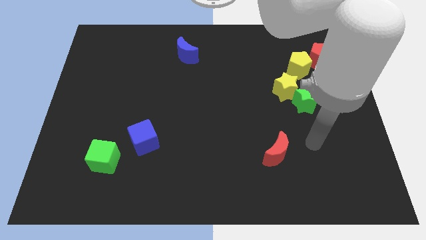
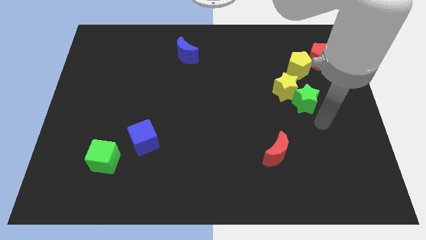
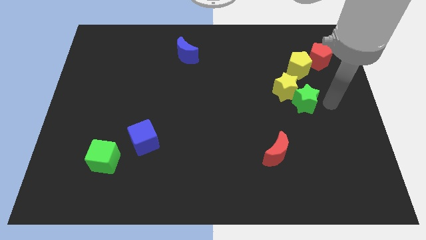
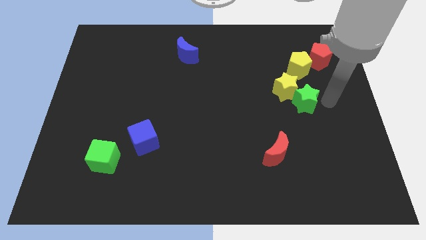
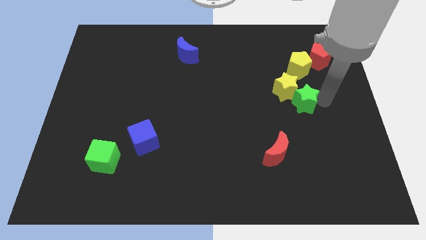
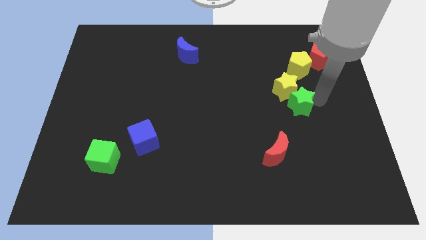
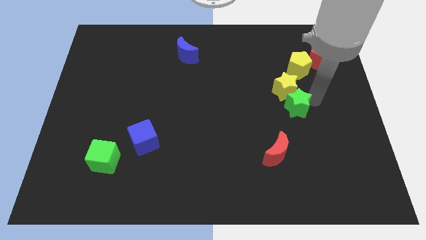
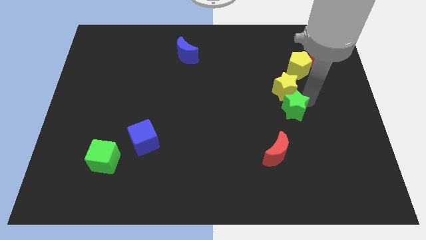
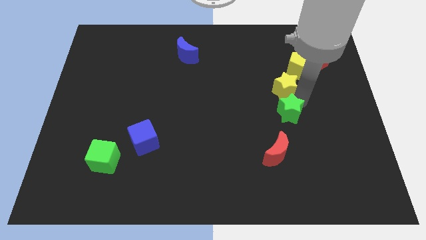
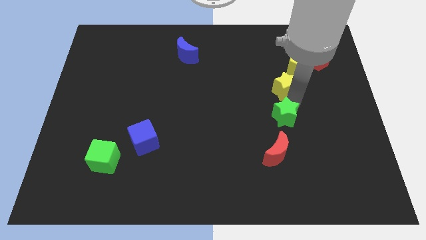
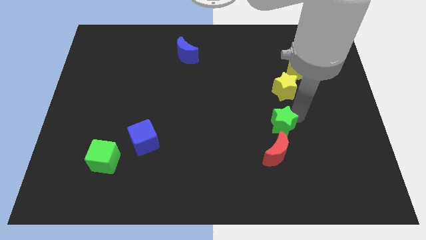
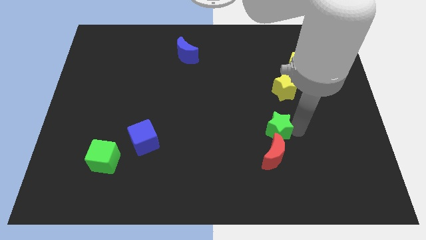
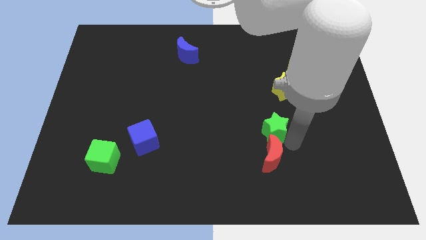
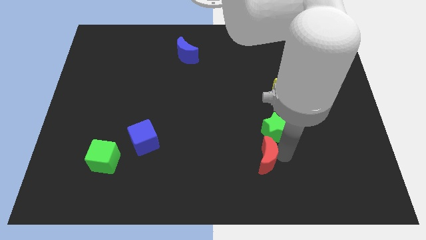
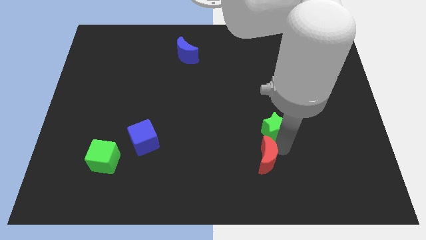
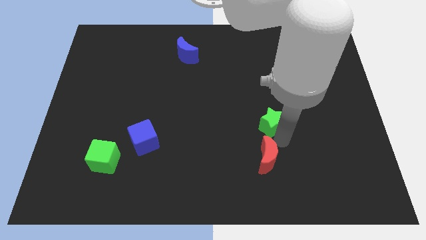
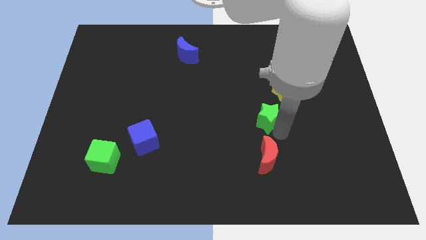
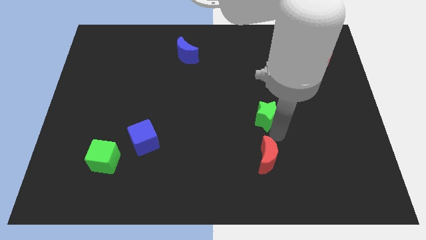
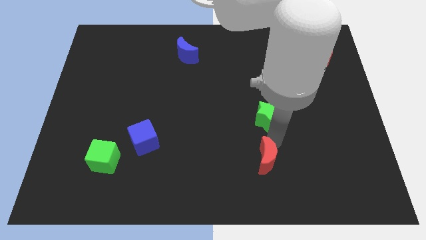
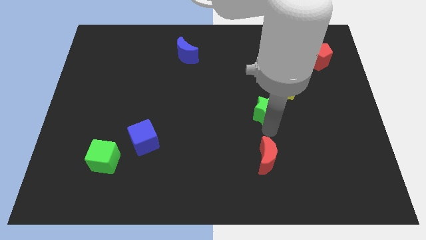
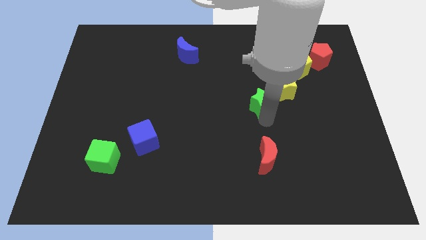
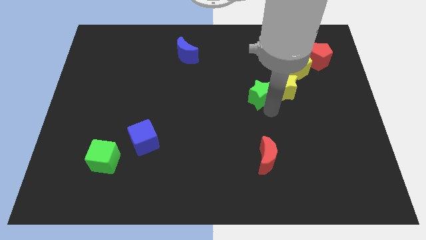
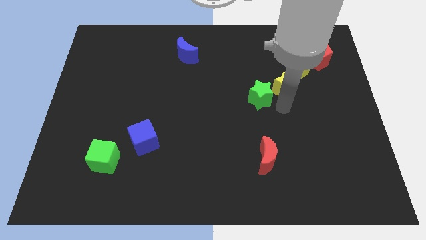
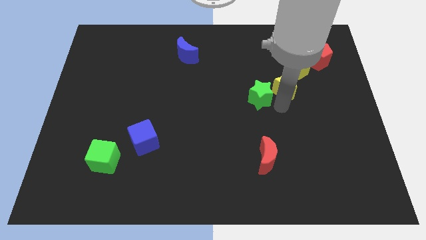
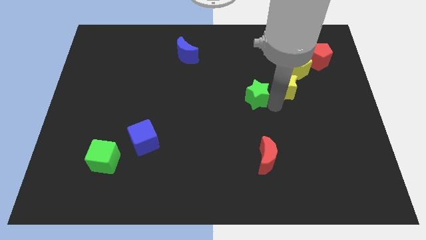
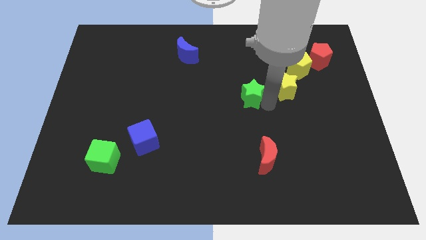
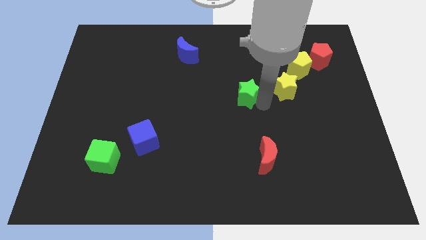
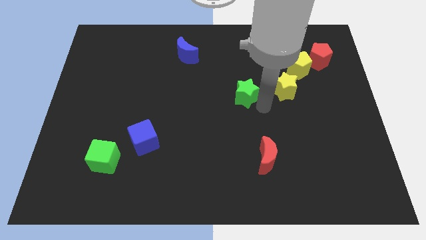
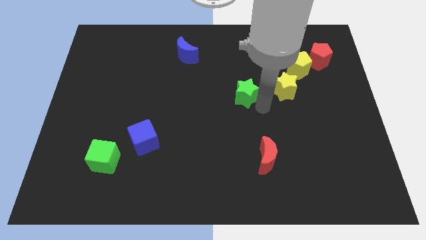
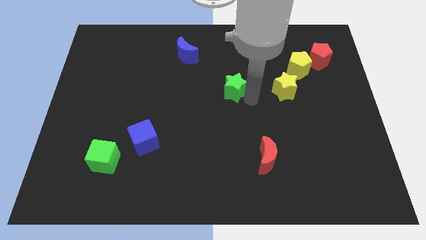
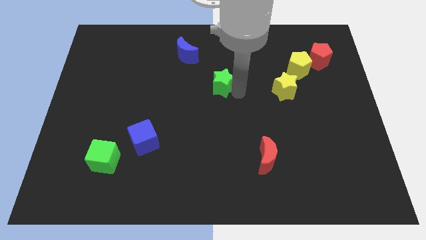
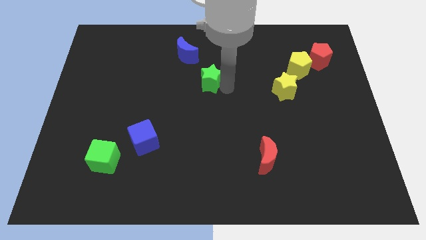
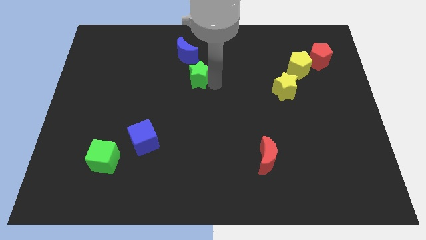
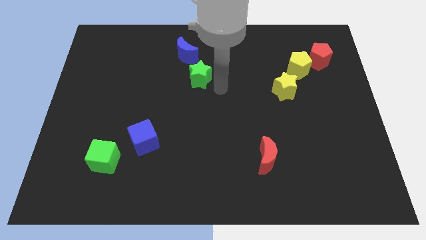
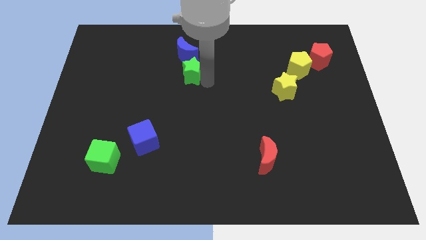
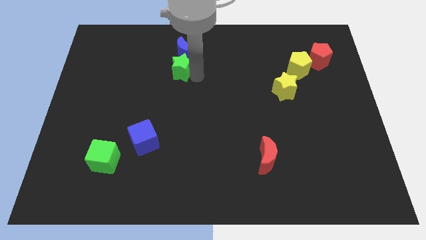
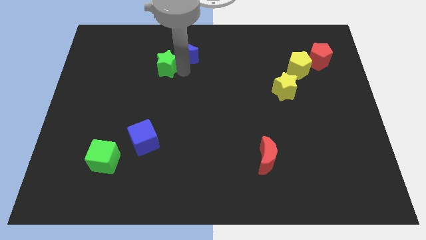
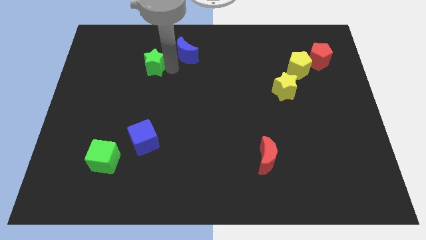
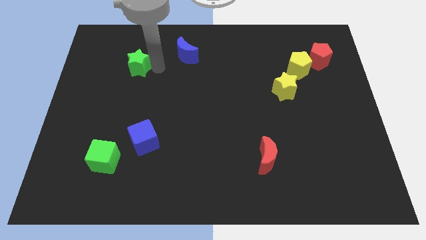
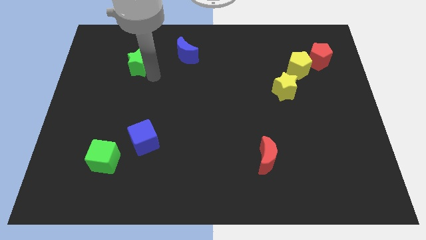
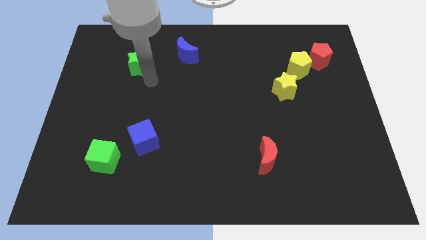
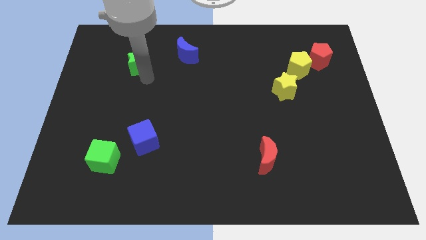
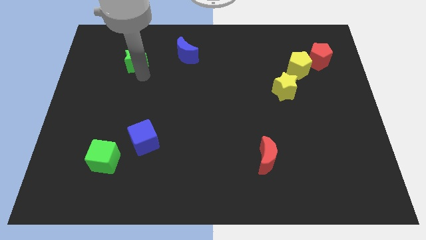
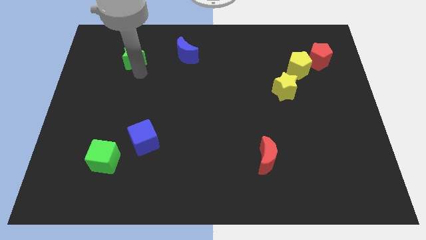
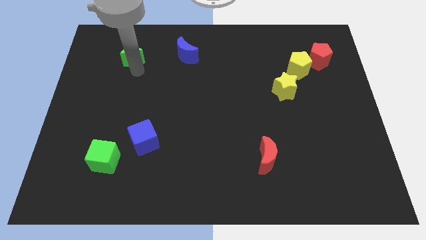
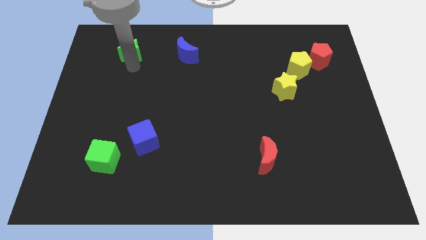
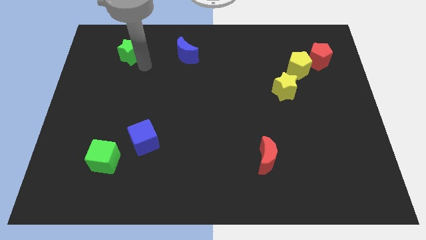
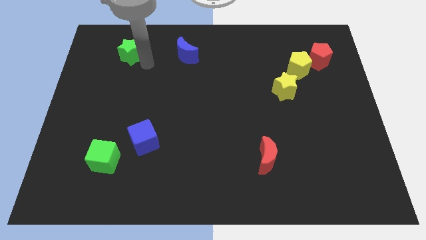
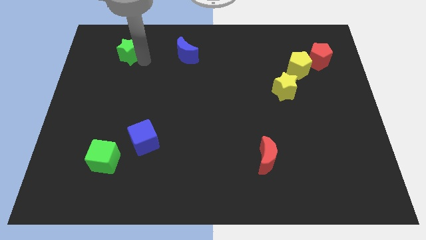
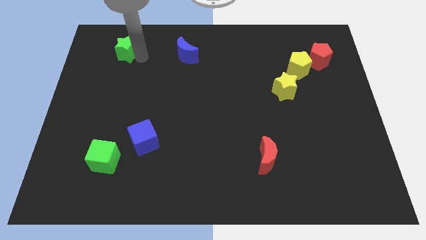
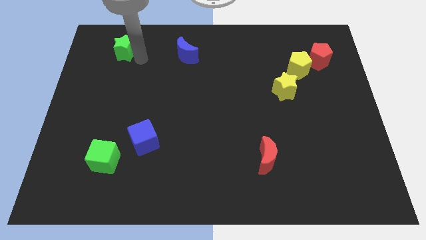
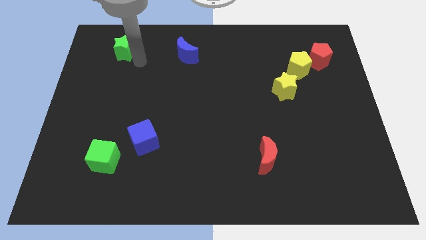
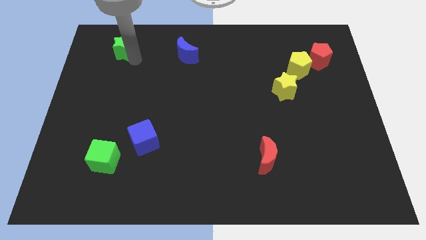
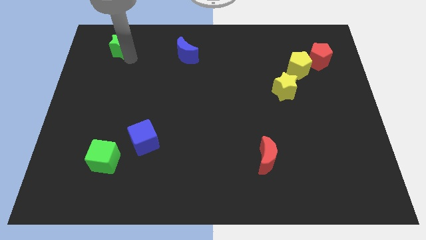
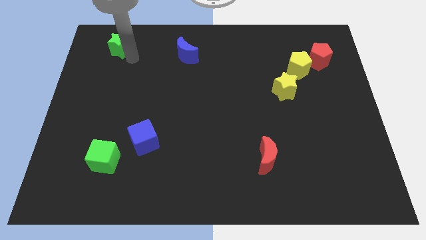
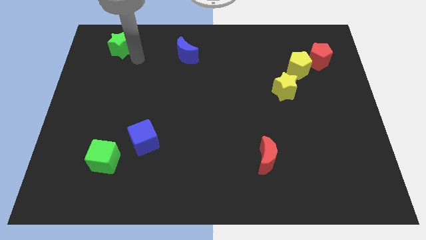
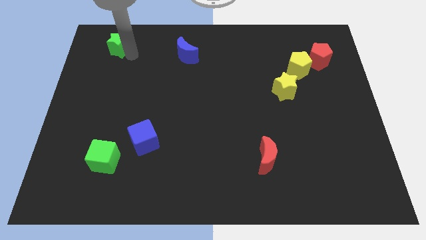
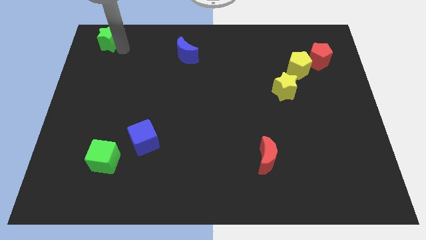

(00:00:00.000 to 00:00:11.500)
push the green star to the top left
